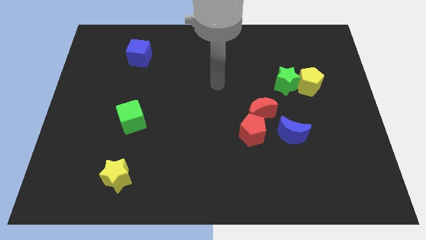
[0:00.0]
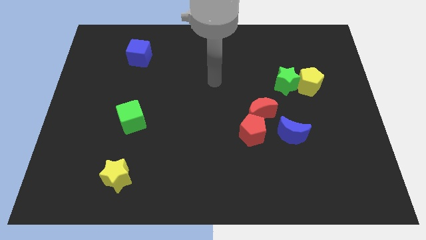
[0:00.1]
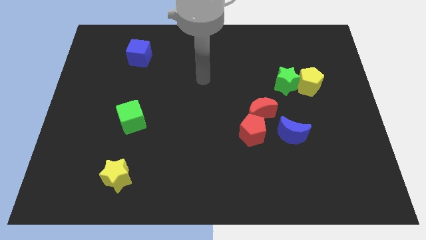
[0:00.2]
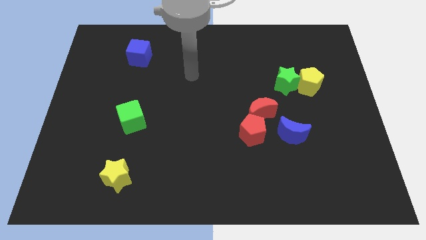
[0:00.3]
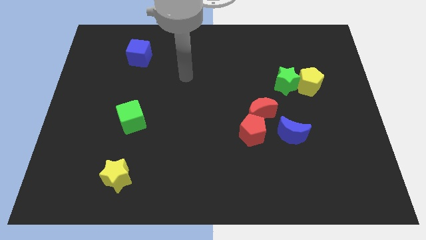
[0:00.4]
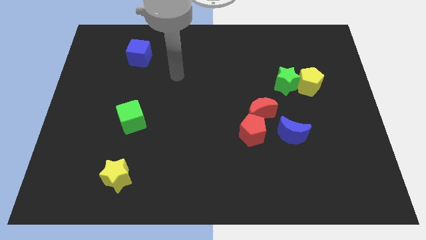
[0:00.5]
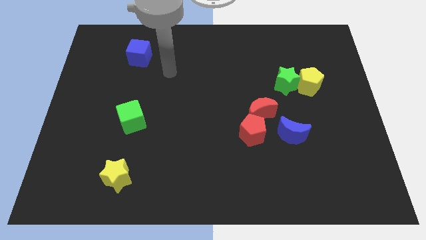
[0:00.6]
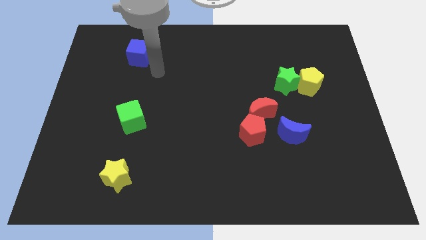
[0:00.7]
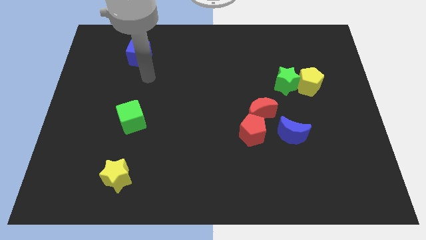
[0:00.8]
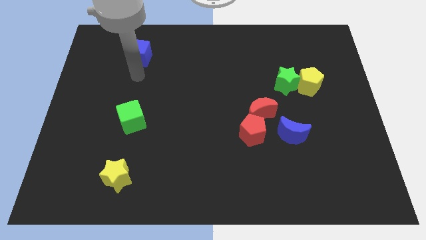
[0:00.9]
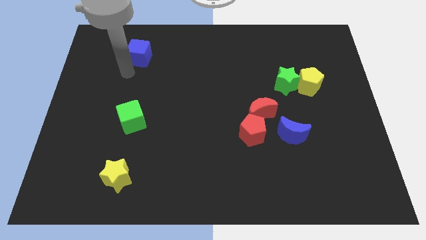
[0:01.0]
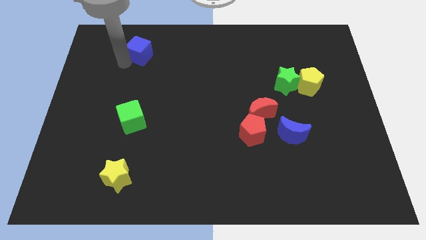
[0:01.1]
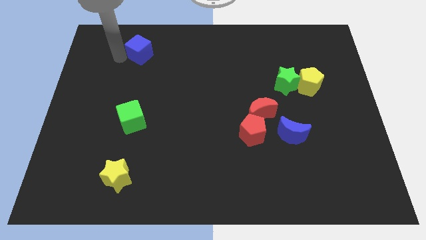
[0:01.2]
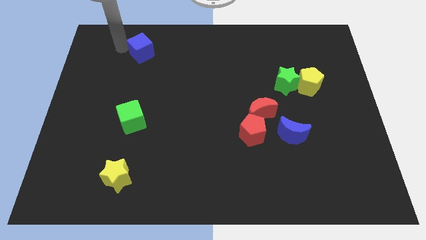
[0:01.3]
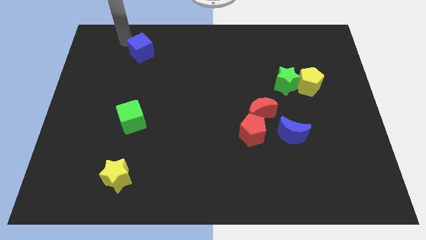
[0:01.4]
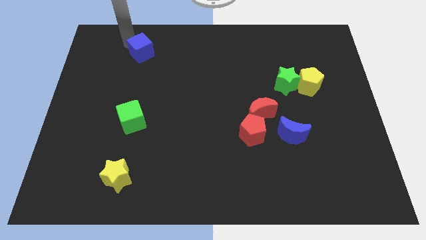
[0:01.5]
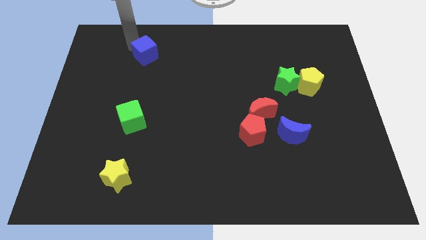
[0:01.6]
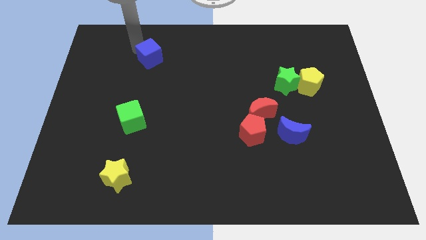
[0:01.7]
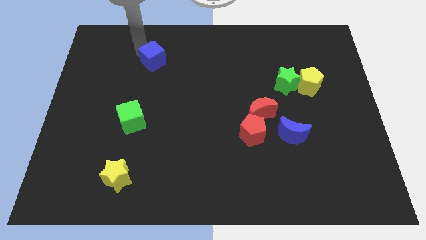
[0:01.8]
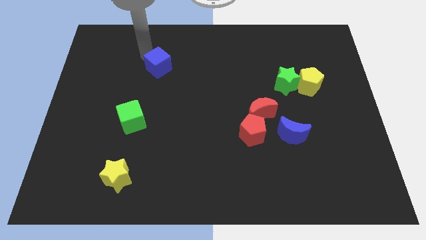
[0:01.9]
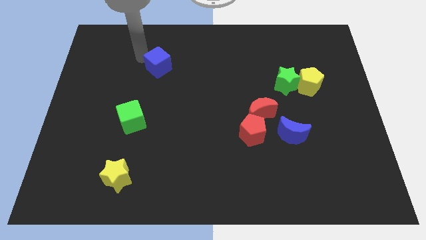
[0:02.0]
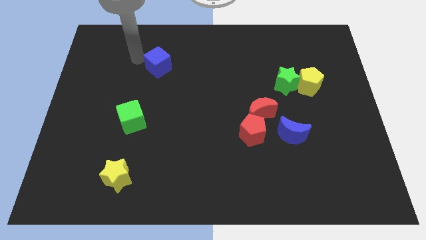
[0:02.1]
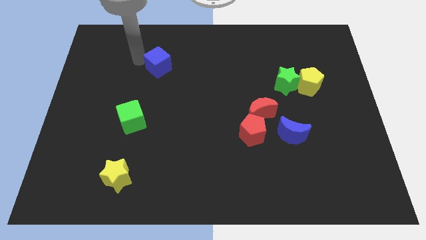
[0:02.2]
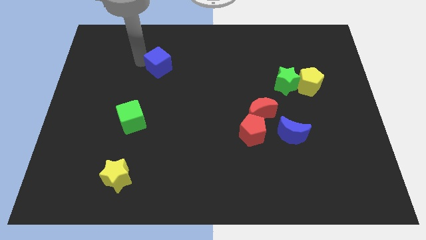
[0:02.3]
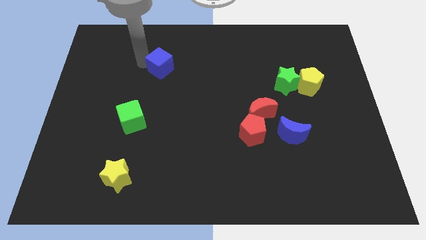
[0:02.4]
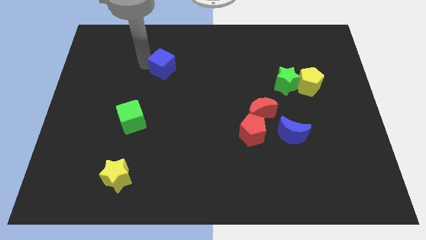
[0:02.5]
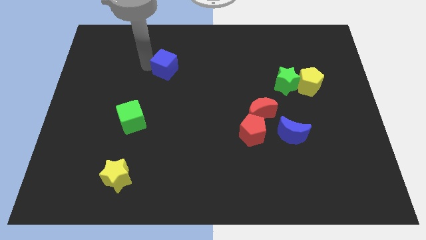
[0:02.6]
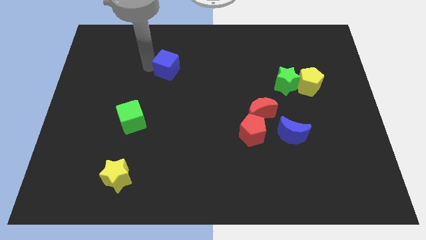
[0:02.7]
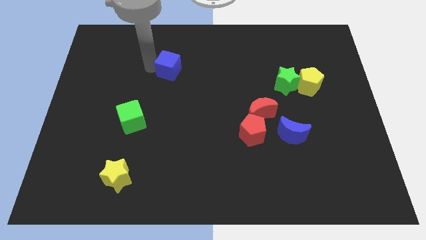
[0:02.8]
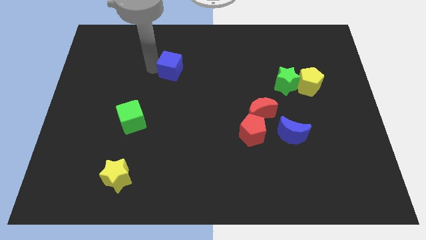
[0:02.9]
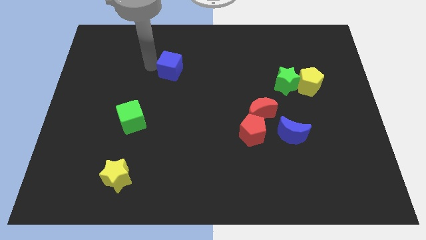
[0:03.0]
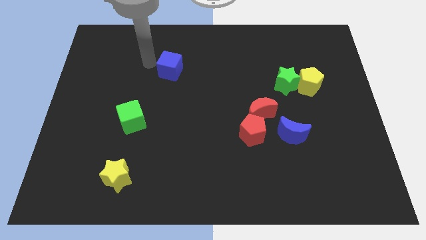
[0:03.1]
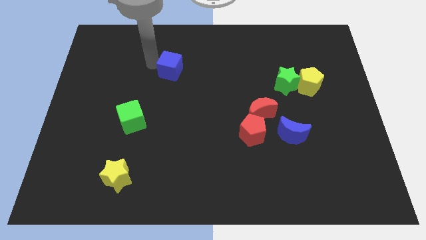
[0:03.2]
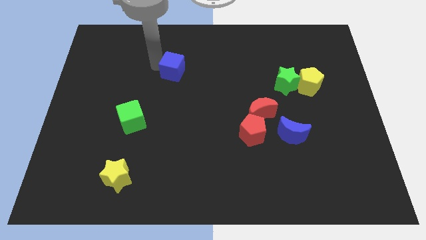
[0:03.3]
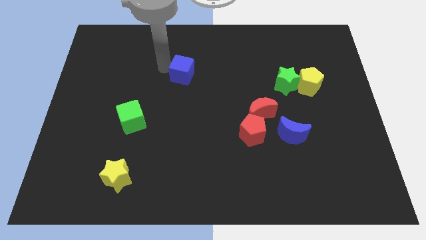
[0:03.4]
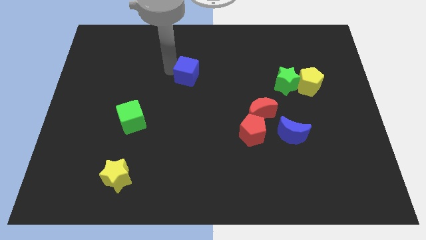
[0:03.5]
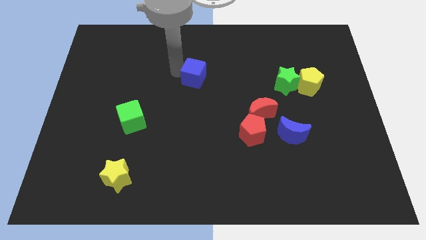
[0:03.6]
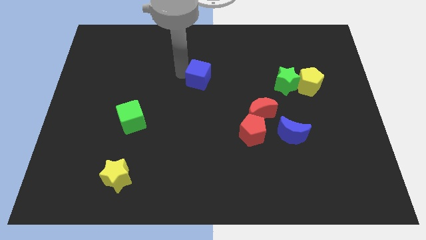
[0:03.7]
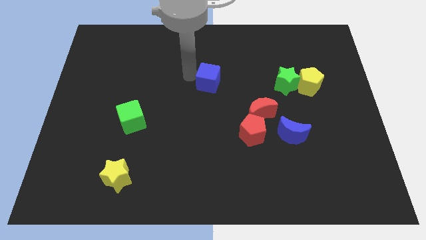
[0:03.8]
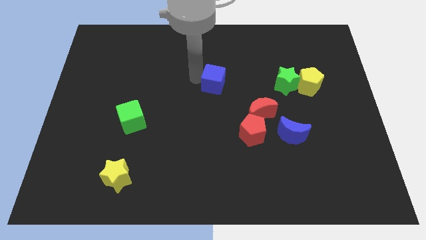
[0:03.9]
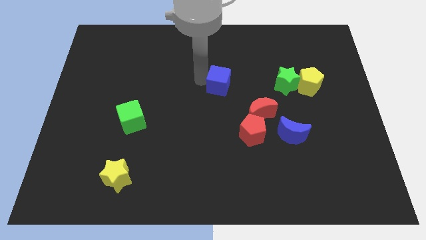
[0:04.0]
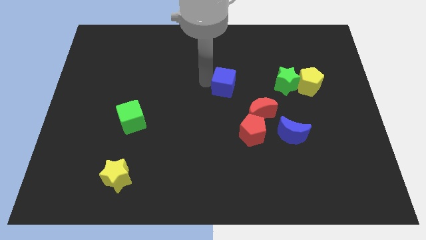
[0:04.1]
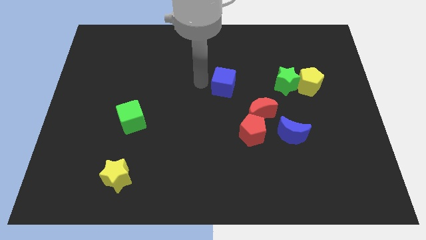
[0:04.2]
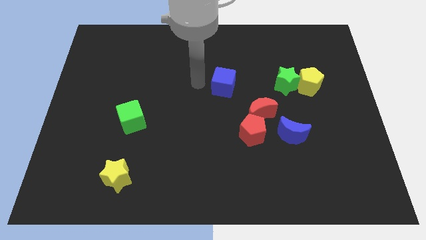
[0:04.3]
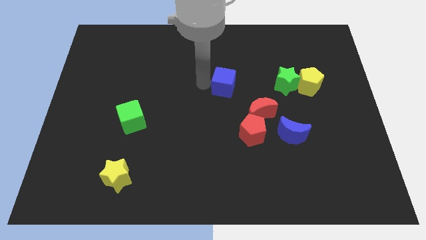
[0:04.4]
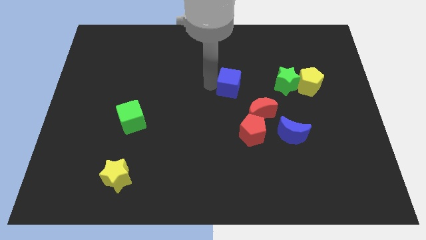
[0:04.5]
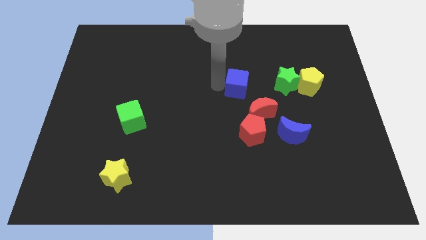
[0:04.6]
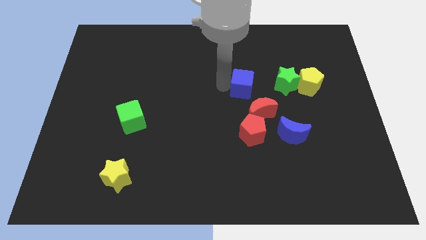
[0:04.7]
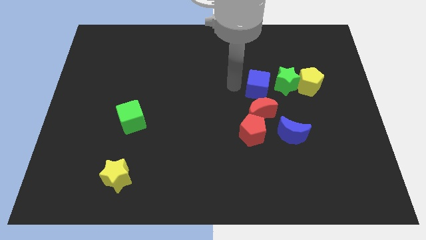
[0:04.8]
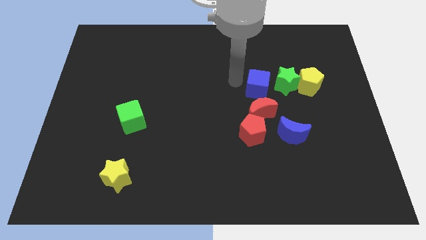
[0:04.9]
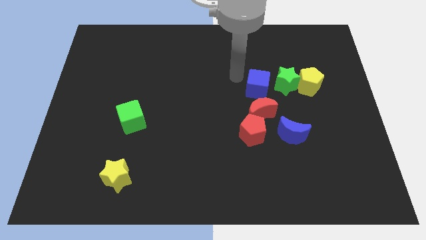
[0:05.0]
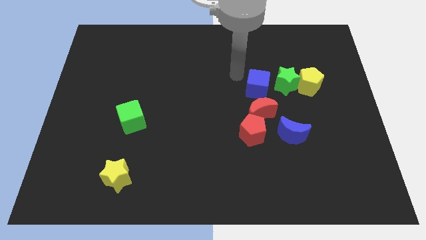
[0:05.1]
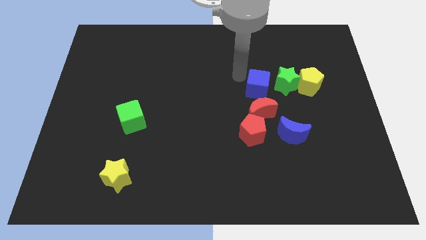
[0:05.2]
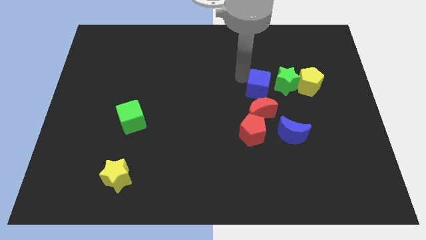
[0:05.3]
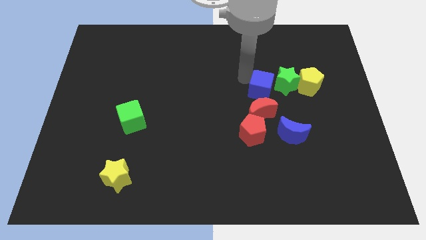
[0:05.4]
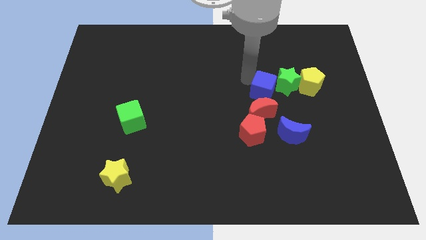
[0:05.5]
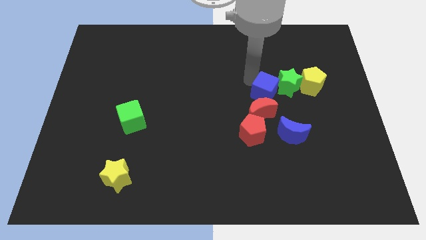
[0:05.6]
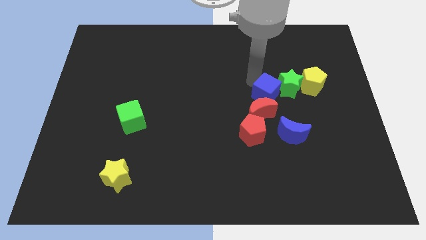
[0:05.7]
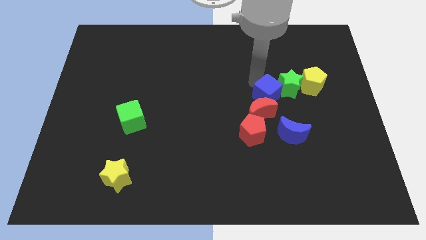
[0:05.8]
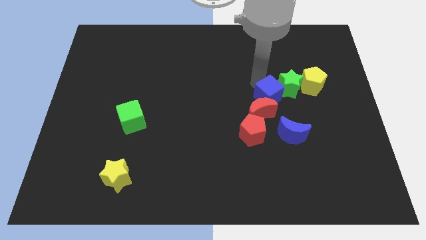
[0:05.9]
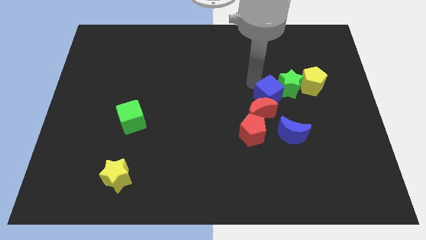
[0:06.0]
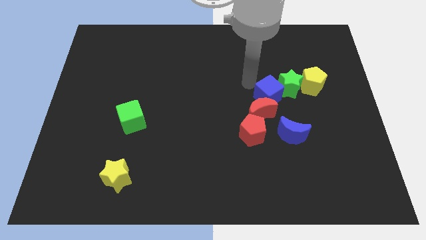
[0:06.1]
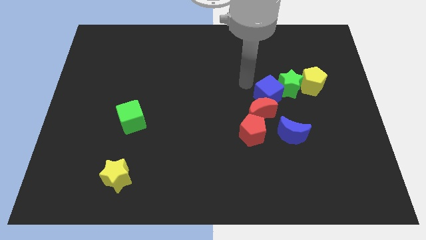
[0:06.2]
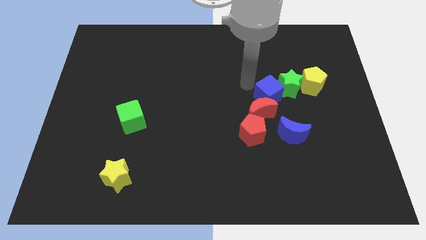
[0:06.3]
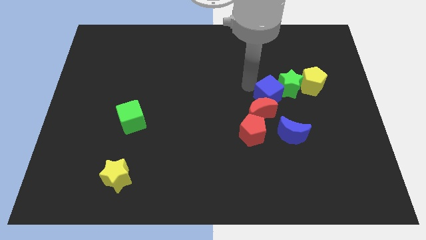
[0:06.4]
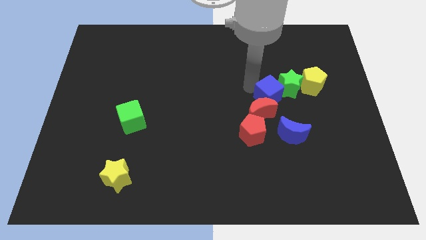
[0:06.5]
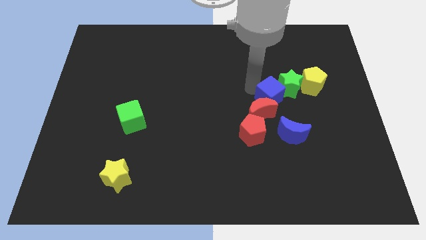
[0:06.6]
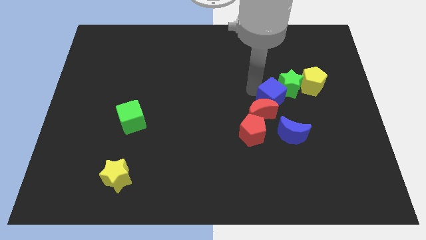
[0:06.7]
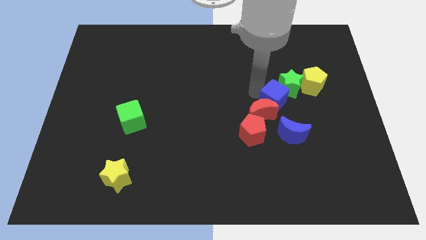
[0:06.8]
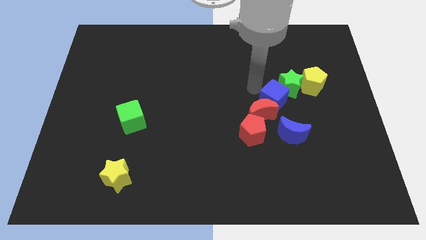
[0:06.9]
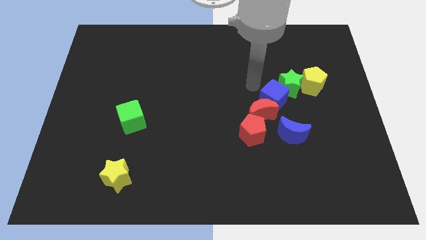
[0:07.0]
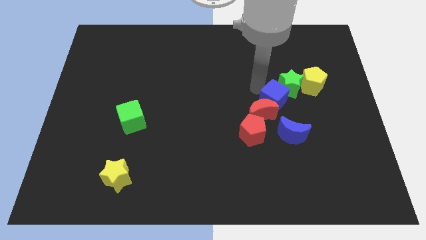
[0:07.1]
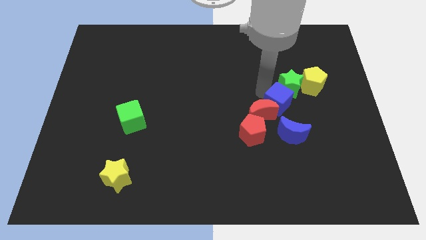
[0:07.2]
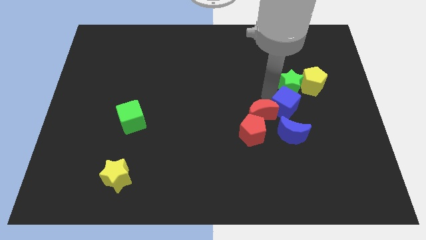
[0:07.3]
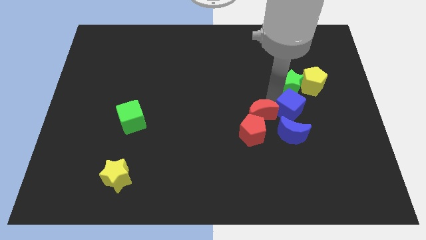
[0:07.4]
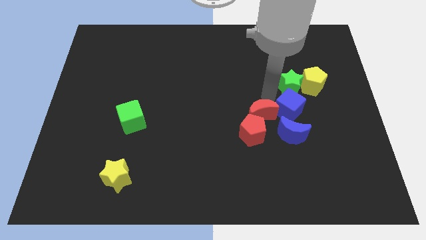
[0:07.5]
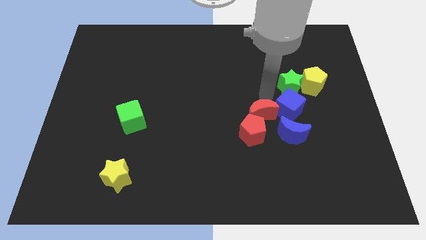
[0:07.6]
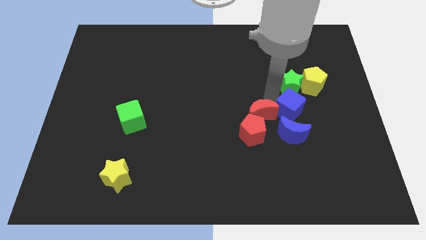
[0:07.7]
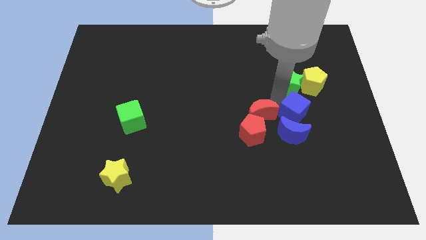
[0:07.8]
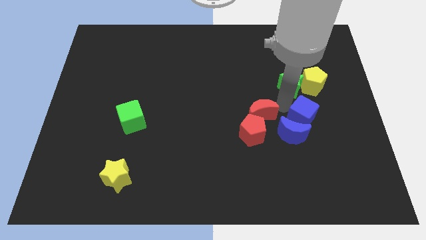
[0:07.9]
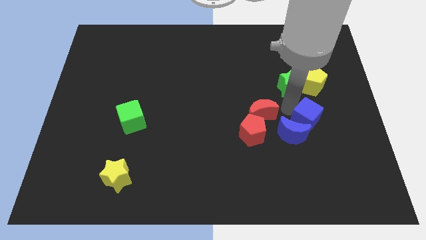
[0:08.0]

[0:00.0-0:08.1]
move the blue cube to the right of the blue moon
